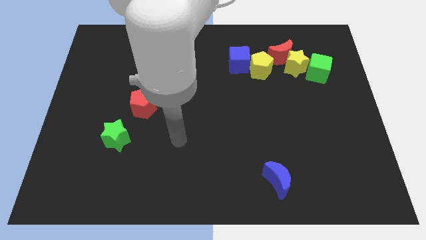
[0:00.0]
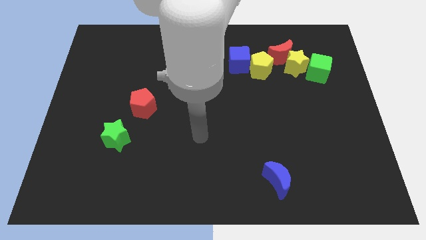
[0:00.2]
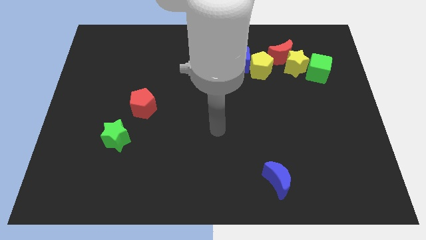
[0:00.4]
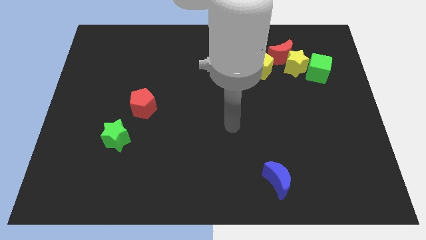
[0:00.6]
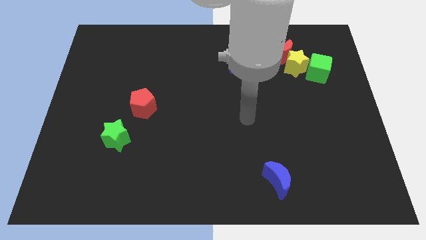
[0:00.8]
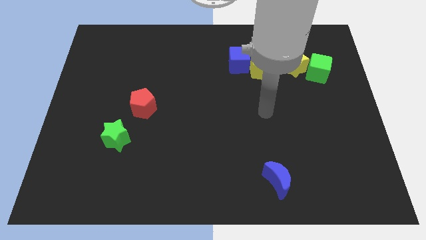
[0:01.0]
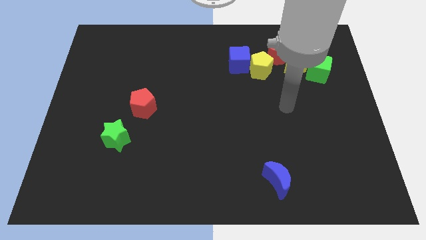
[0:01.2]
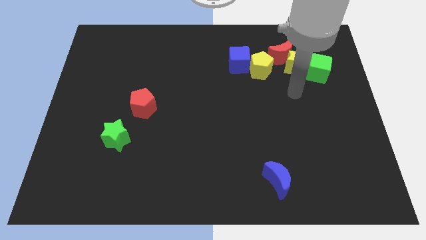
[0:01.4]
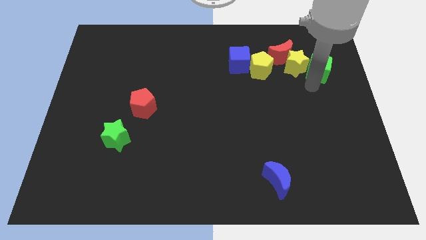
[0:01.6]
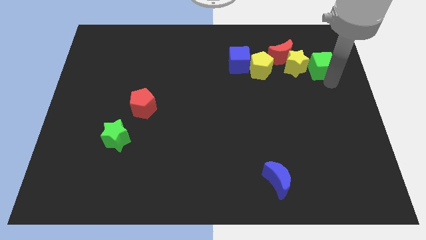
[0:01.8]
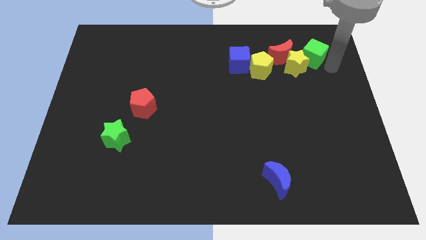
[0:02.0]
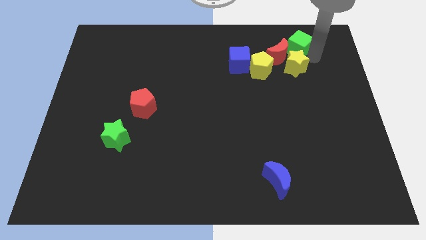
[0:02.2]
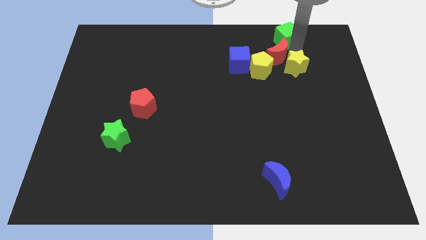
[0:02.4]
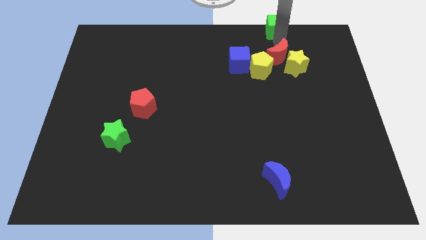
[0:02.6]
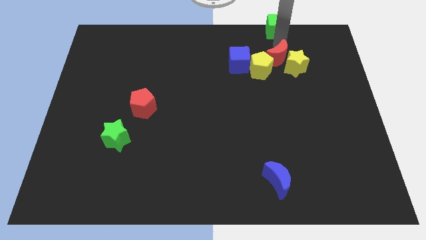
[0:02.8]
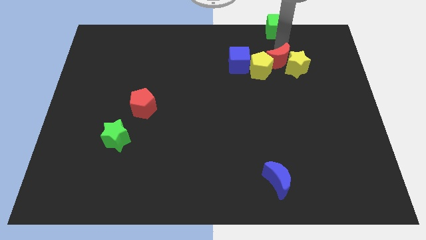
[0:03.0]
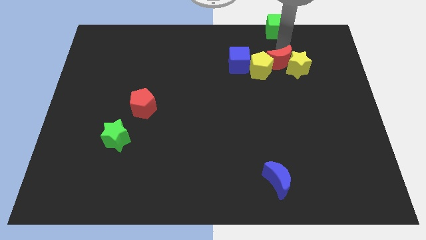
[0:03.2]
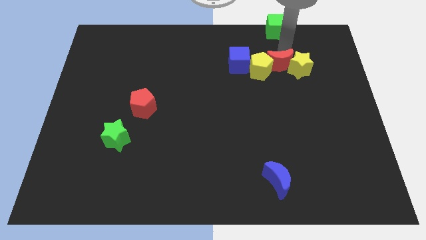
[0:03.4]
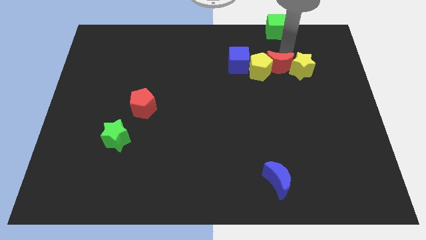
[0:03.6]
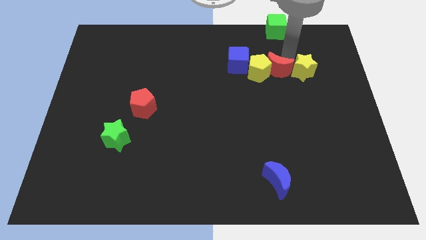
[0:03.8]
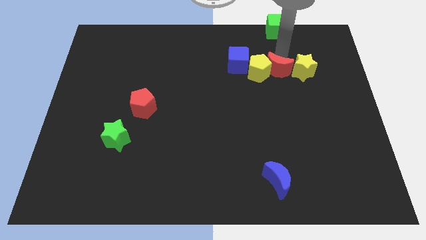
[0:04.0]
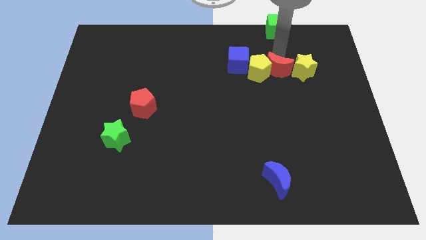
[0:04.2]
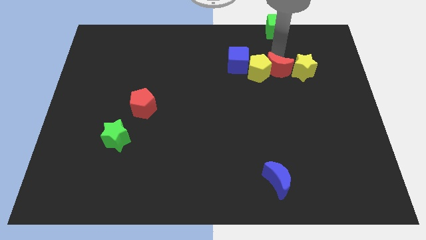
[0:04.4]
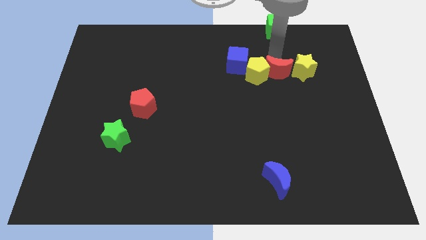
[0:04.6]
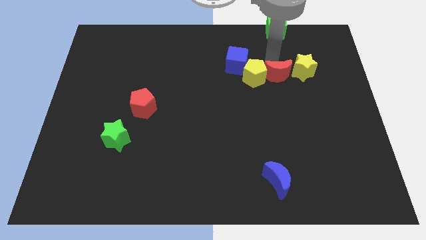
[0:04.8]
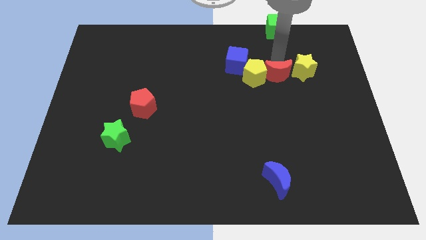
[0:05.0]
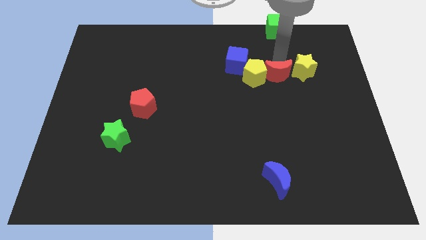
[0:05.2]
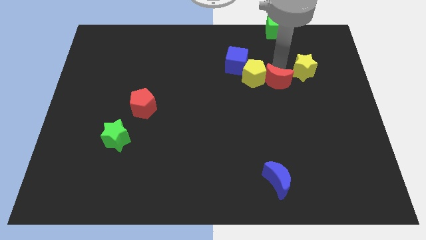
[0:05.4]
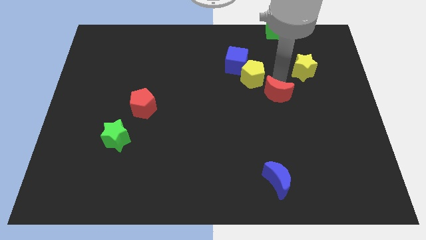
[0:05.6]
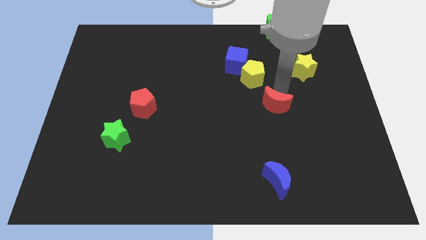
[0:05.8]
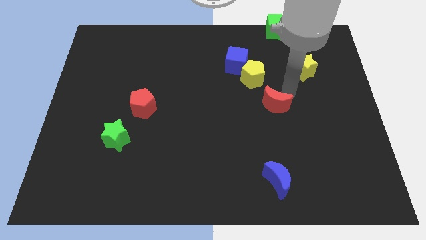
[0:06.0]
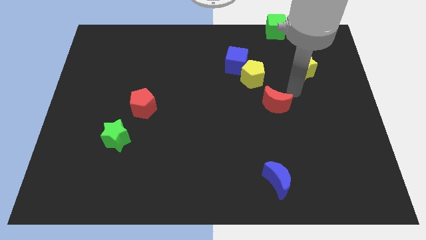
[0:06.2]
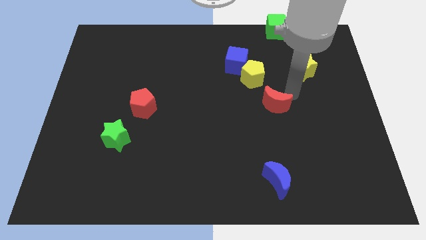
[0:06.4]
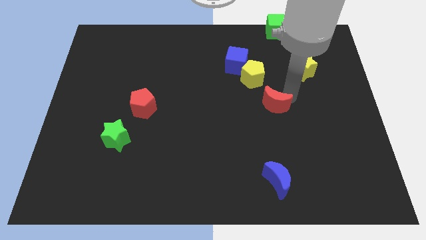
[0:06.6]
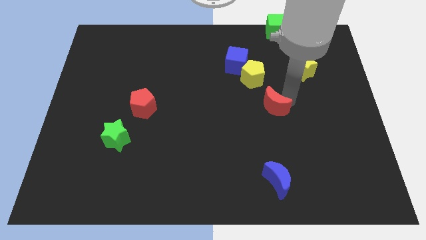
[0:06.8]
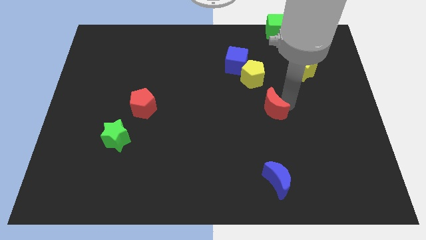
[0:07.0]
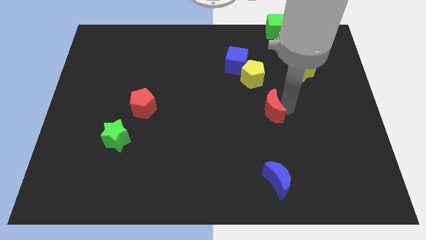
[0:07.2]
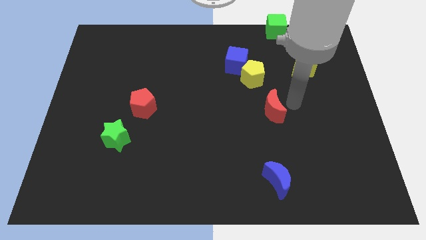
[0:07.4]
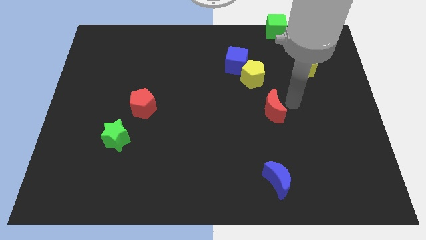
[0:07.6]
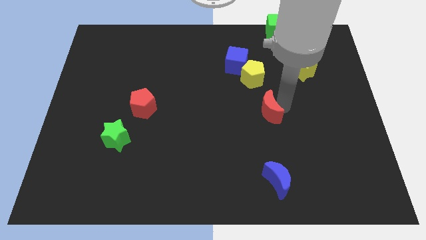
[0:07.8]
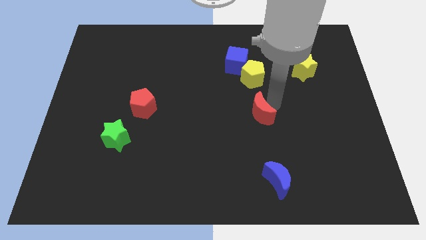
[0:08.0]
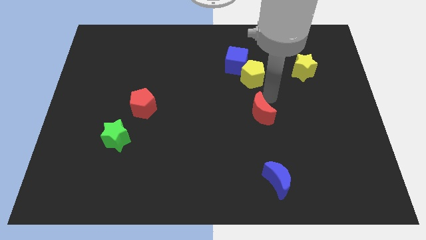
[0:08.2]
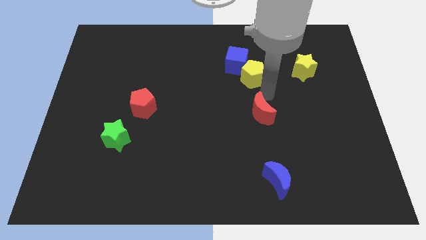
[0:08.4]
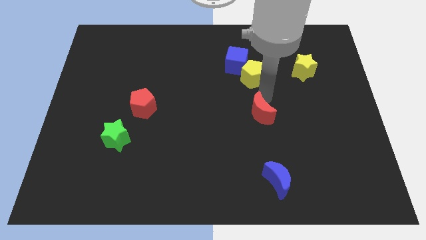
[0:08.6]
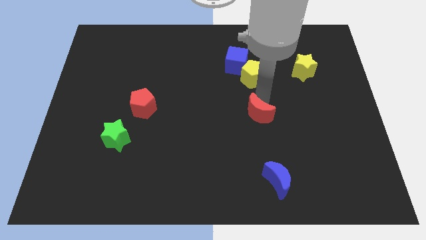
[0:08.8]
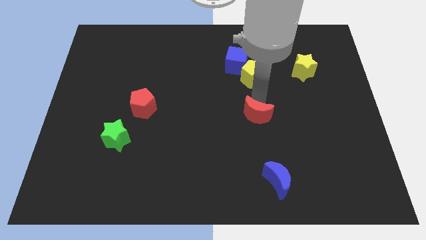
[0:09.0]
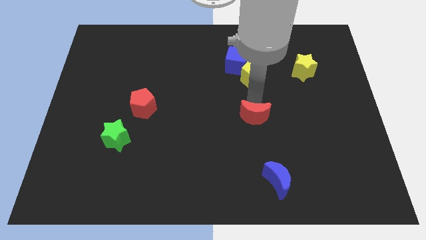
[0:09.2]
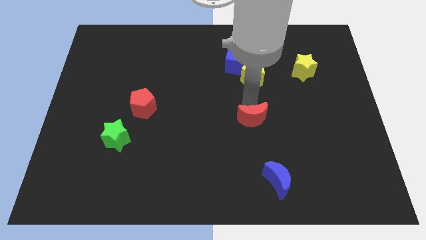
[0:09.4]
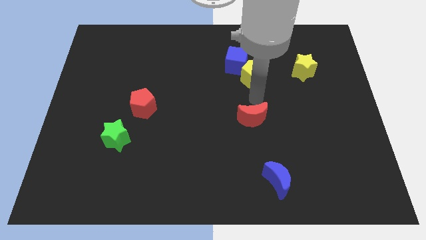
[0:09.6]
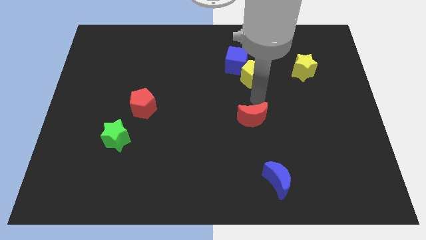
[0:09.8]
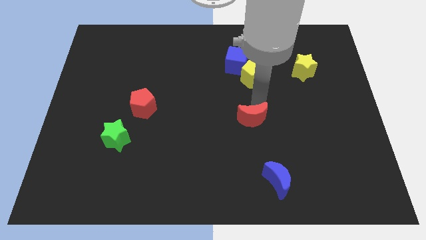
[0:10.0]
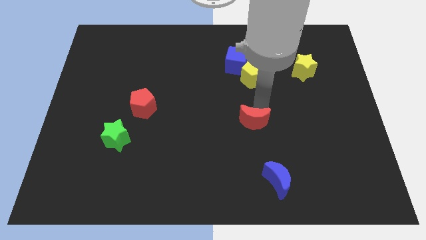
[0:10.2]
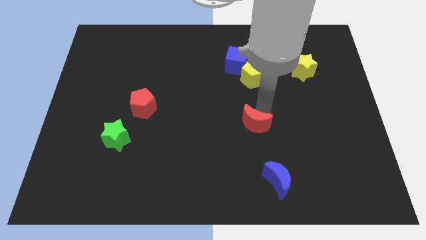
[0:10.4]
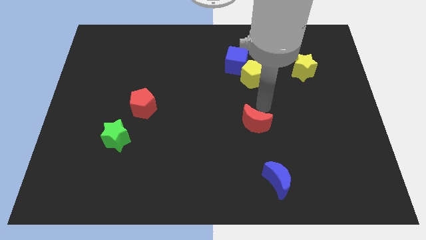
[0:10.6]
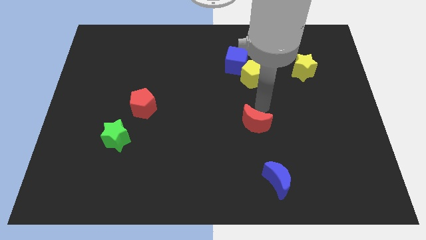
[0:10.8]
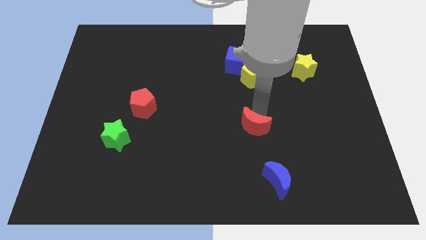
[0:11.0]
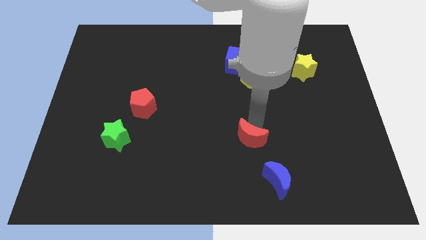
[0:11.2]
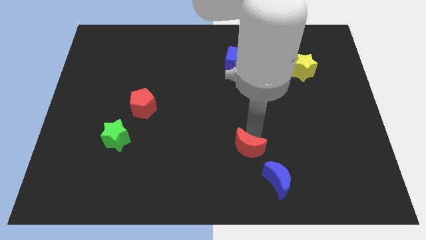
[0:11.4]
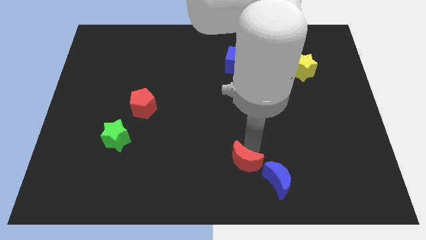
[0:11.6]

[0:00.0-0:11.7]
move the red moon to the bottom side

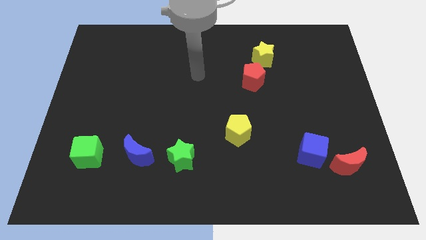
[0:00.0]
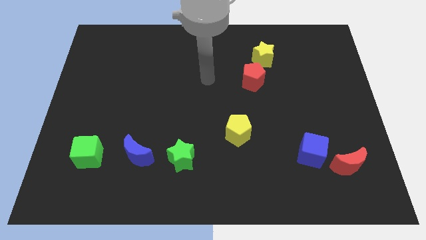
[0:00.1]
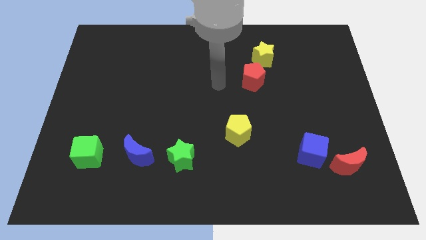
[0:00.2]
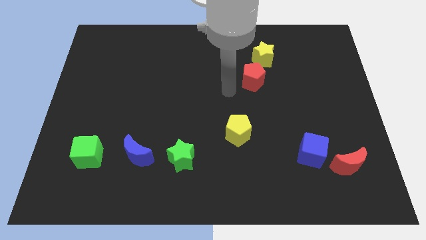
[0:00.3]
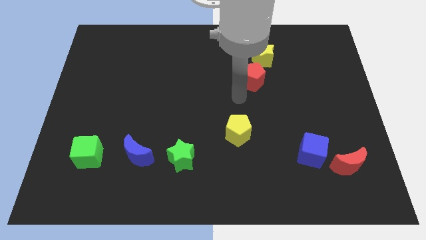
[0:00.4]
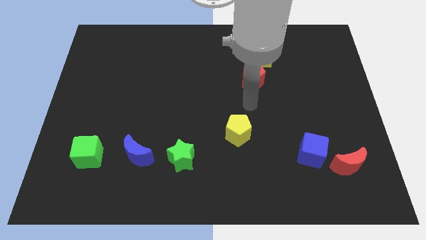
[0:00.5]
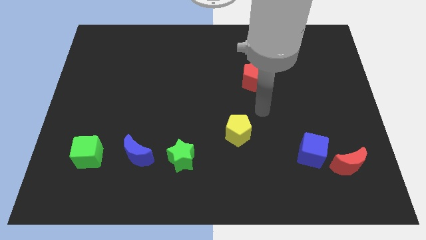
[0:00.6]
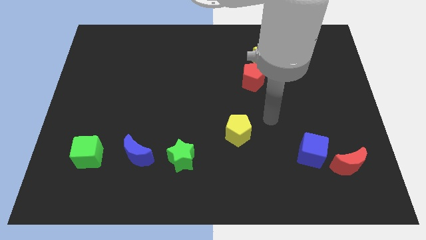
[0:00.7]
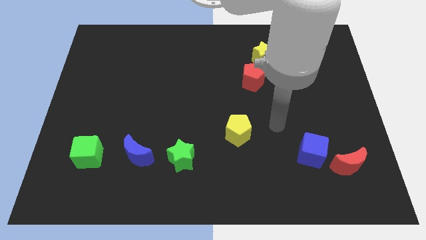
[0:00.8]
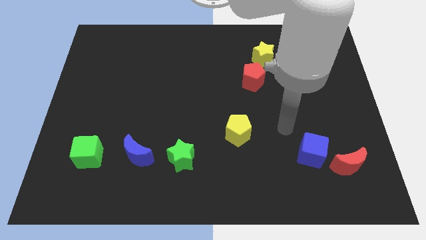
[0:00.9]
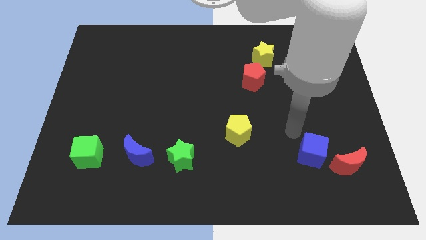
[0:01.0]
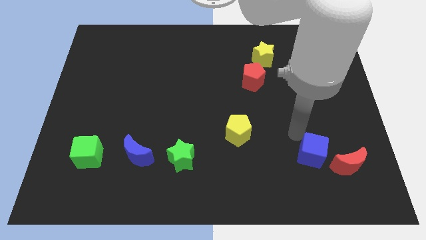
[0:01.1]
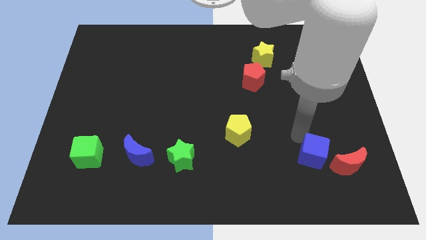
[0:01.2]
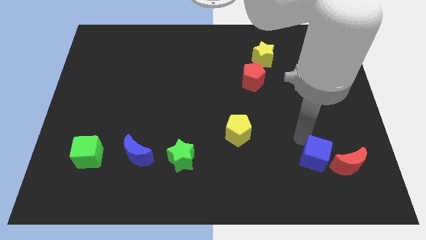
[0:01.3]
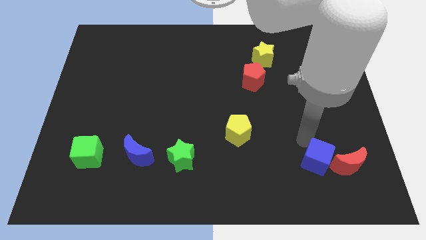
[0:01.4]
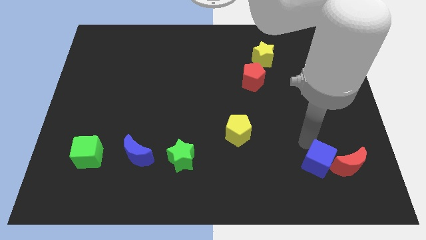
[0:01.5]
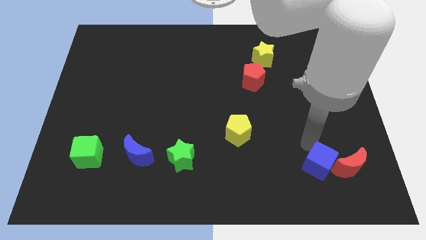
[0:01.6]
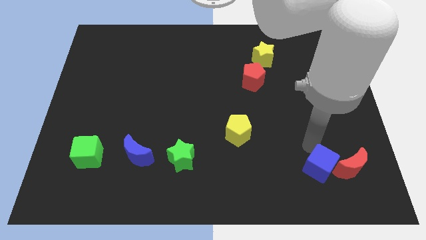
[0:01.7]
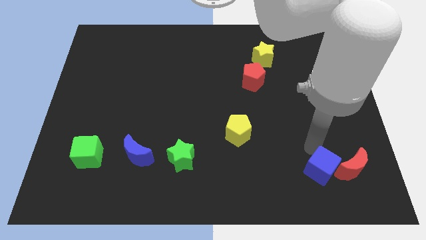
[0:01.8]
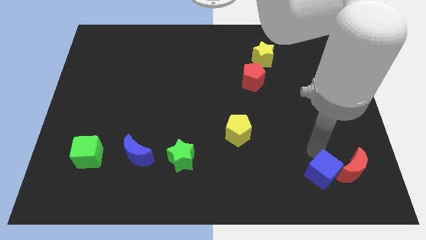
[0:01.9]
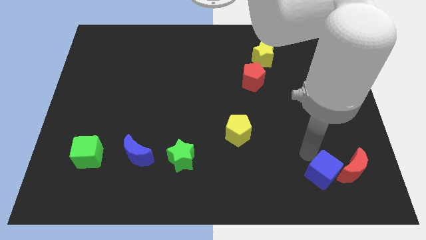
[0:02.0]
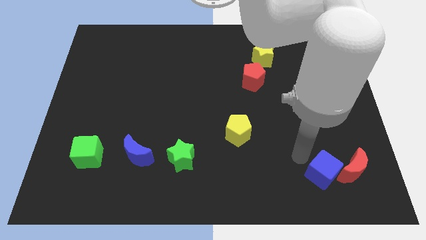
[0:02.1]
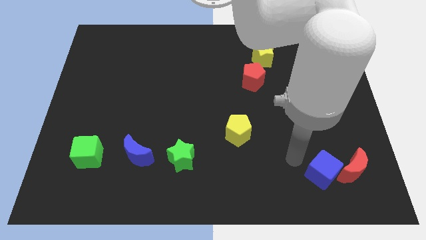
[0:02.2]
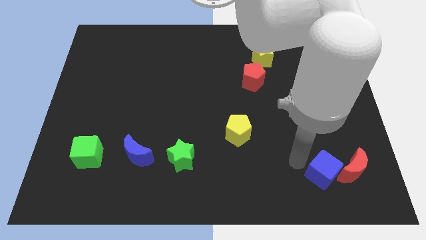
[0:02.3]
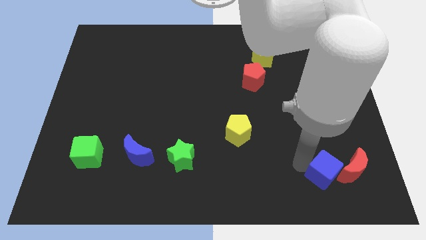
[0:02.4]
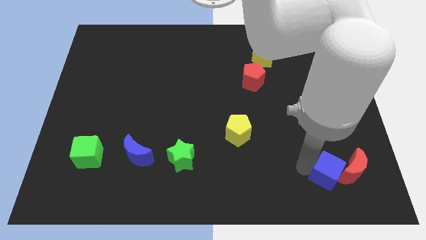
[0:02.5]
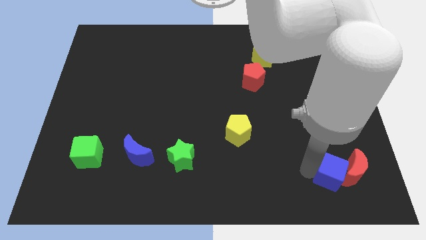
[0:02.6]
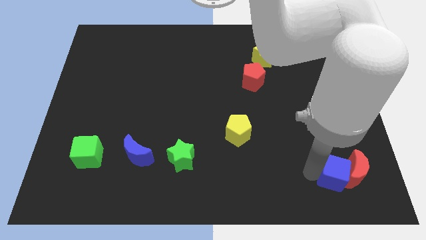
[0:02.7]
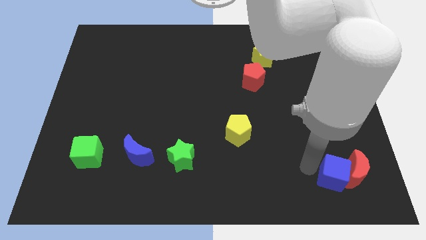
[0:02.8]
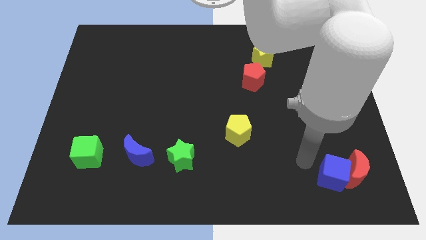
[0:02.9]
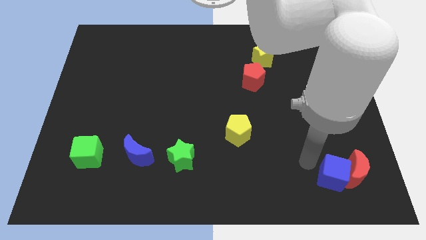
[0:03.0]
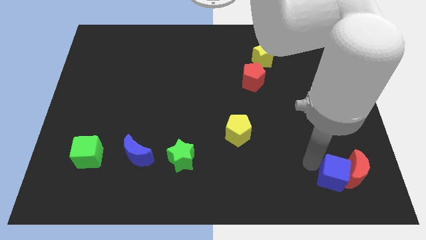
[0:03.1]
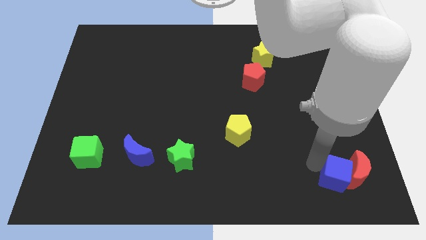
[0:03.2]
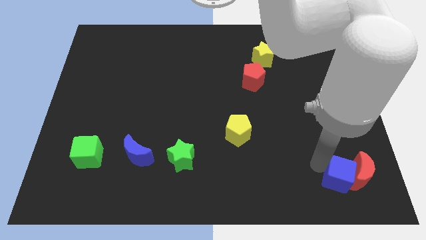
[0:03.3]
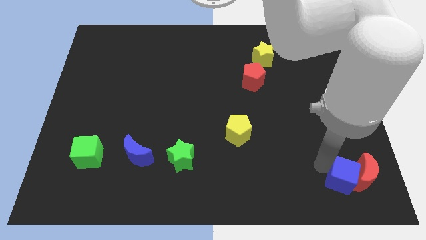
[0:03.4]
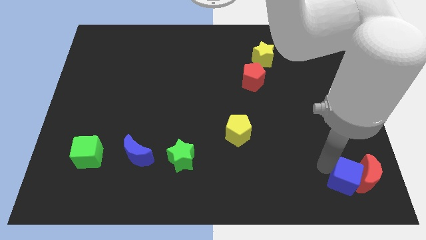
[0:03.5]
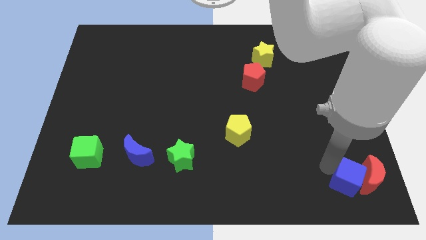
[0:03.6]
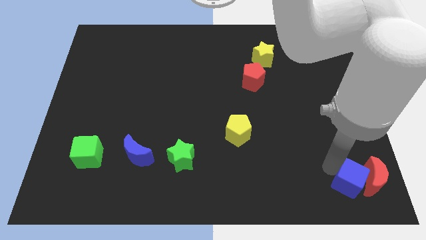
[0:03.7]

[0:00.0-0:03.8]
move the blue cube to the bottom right
